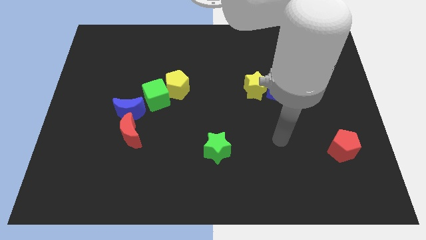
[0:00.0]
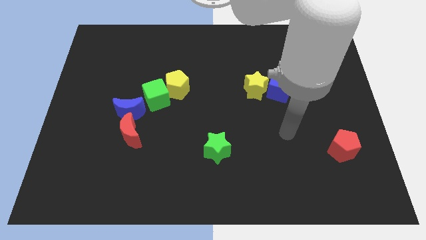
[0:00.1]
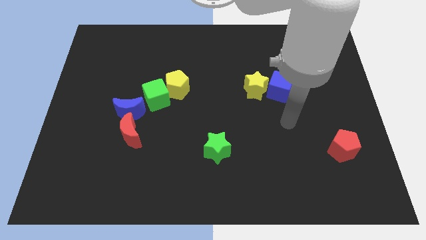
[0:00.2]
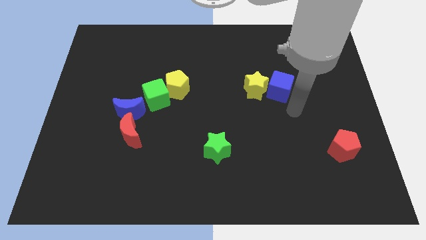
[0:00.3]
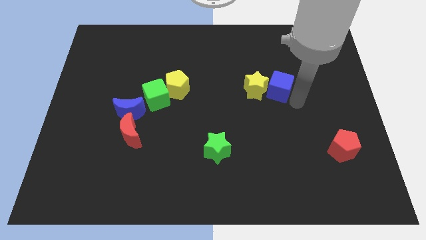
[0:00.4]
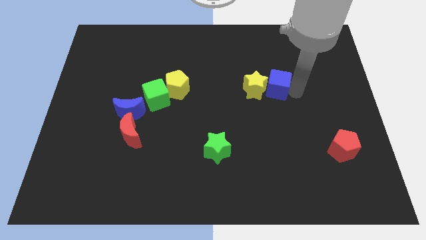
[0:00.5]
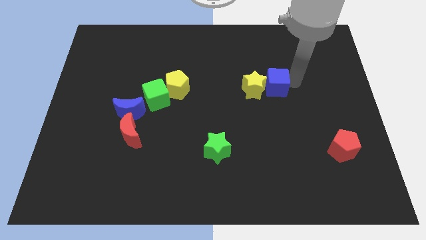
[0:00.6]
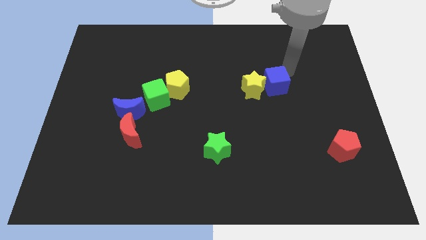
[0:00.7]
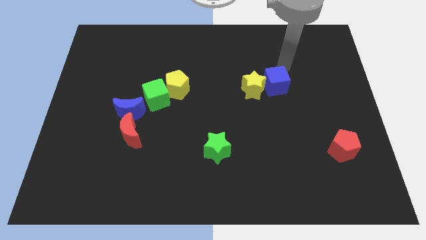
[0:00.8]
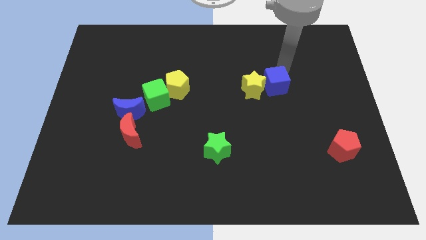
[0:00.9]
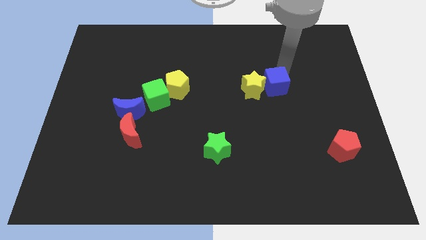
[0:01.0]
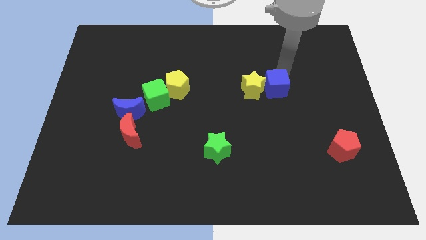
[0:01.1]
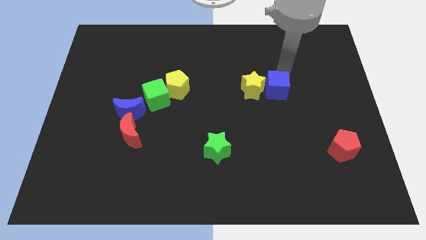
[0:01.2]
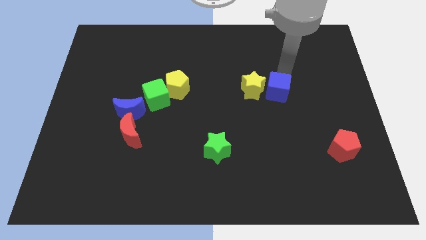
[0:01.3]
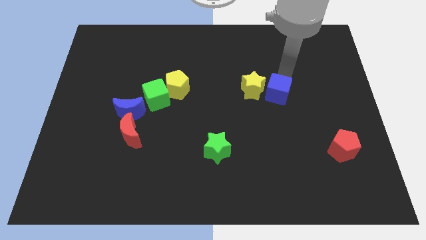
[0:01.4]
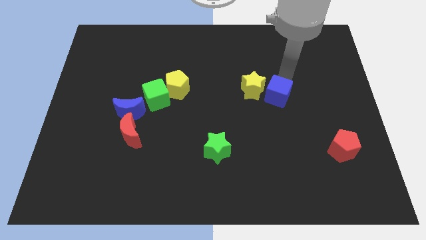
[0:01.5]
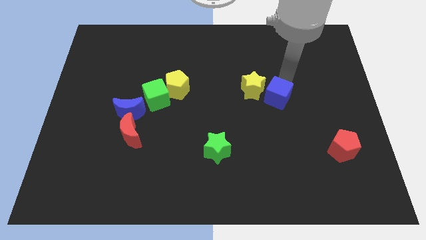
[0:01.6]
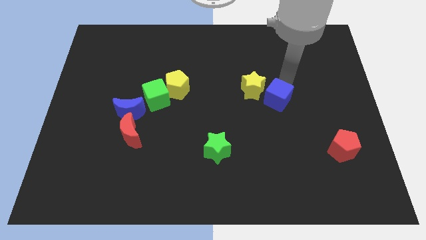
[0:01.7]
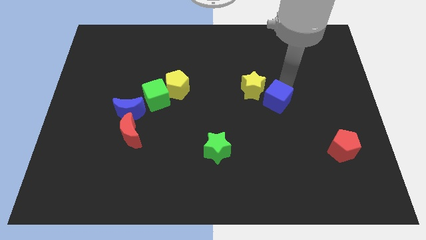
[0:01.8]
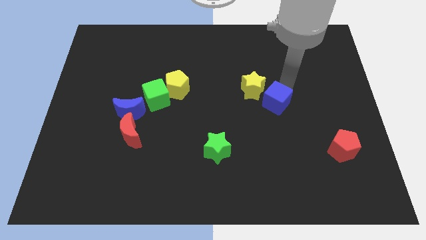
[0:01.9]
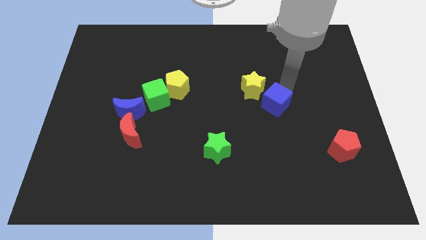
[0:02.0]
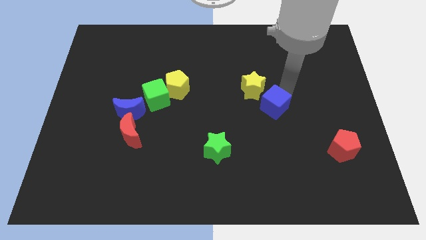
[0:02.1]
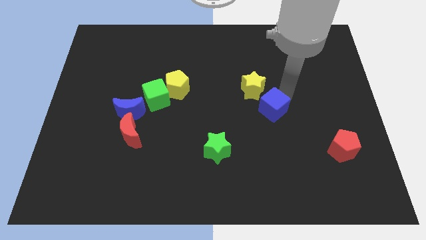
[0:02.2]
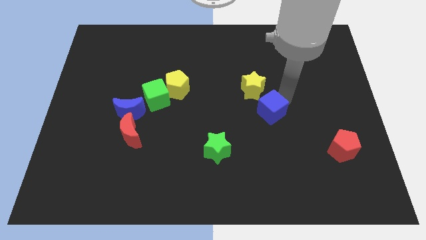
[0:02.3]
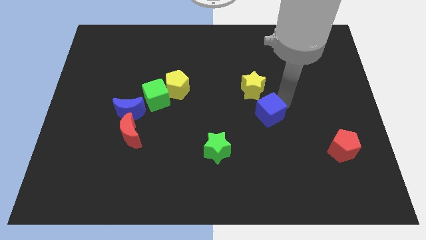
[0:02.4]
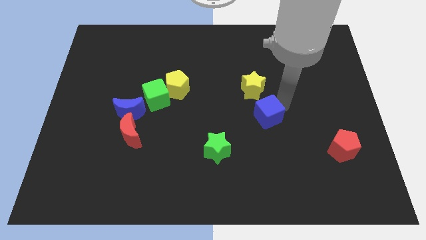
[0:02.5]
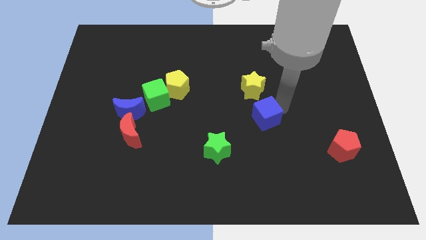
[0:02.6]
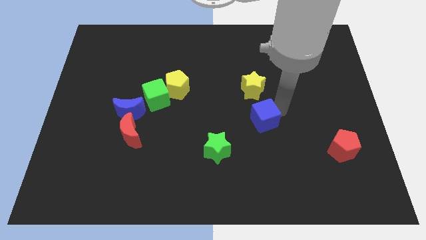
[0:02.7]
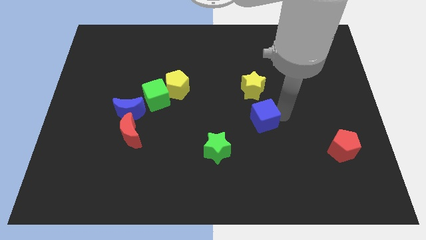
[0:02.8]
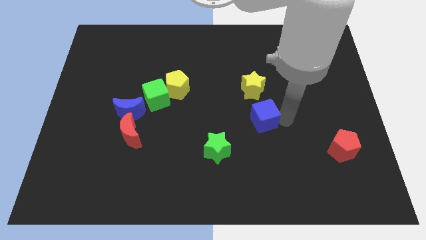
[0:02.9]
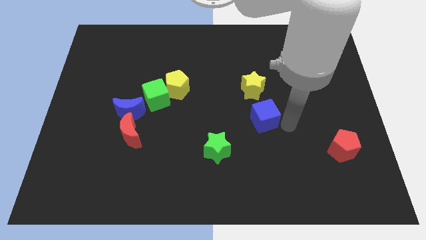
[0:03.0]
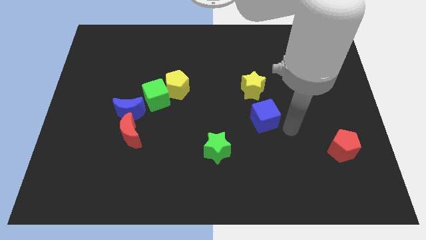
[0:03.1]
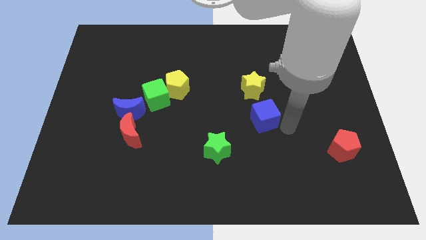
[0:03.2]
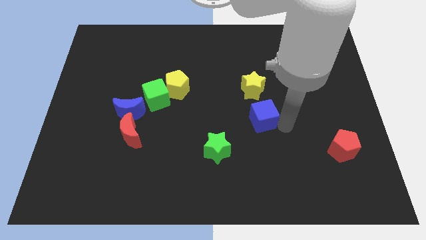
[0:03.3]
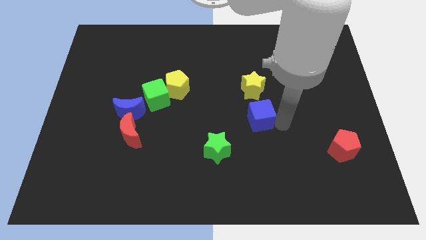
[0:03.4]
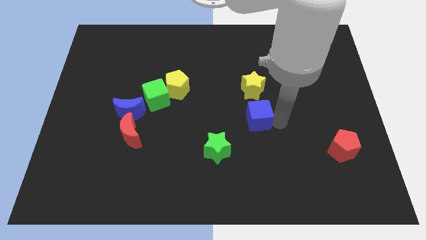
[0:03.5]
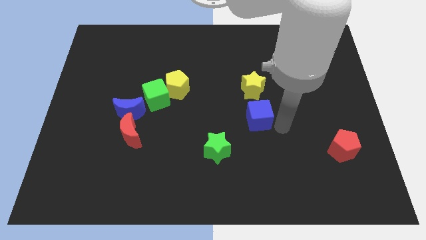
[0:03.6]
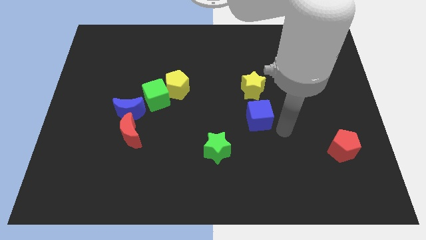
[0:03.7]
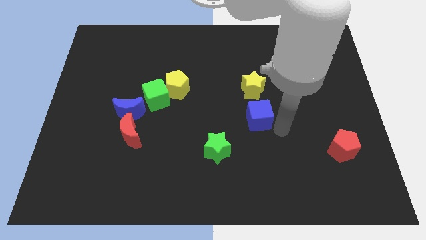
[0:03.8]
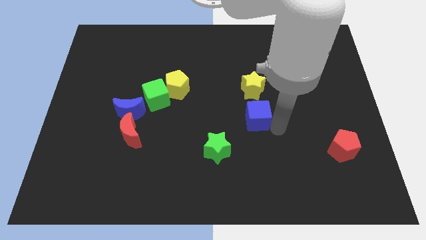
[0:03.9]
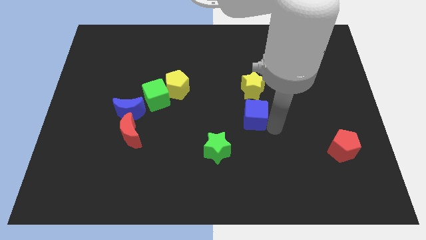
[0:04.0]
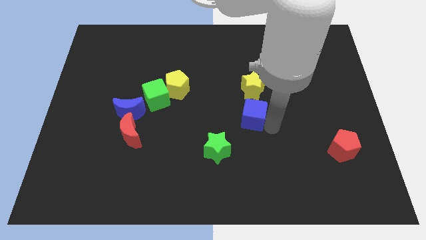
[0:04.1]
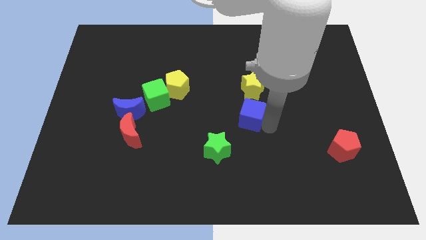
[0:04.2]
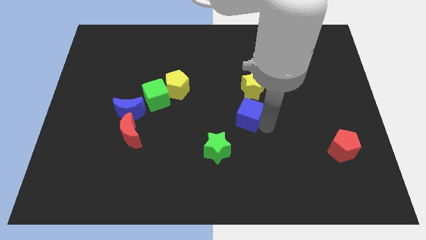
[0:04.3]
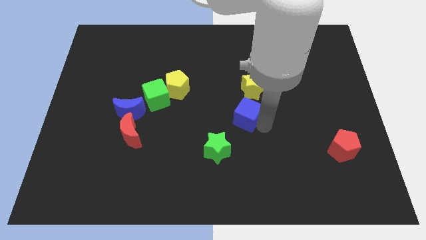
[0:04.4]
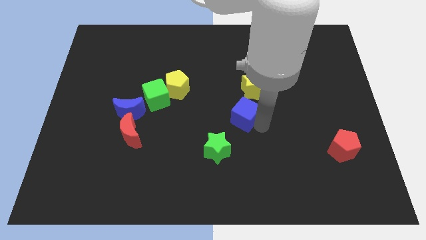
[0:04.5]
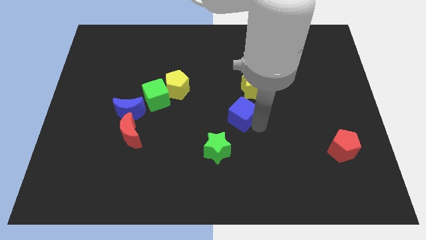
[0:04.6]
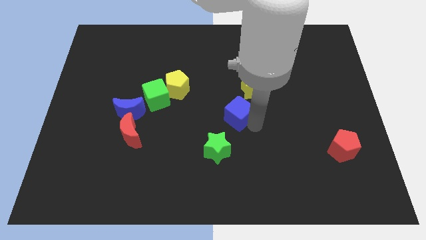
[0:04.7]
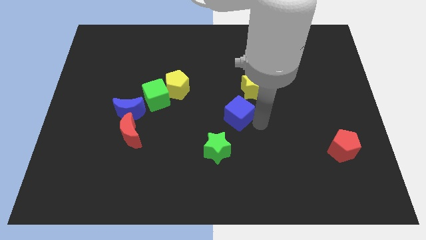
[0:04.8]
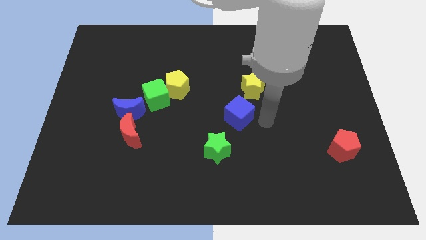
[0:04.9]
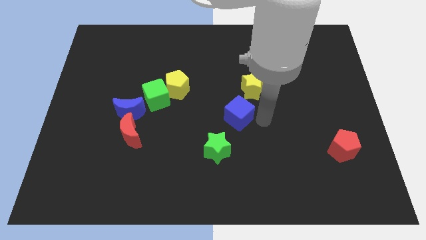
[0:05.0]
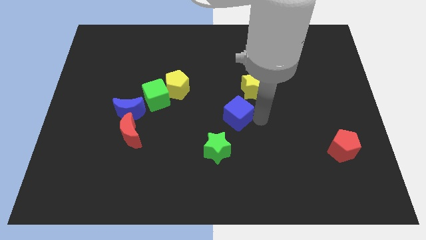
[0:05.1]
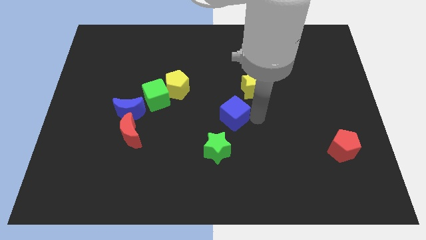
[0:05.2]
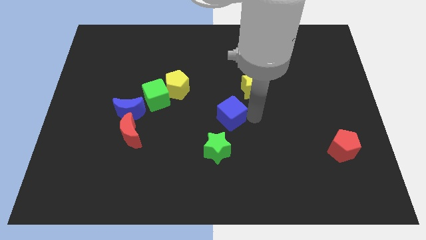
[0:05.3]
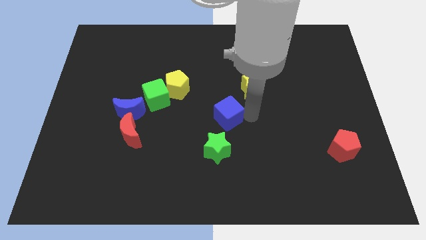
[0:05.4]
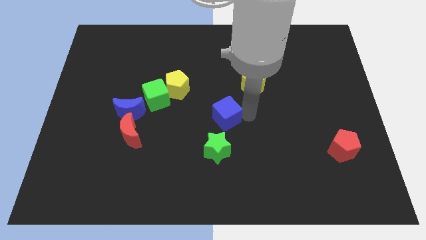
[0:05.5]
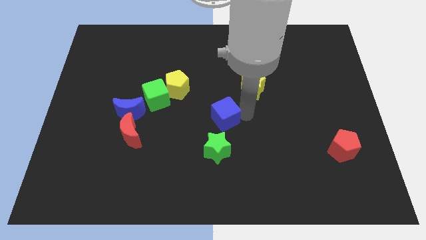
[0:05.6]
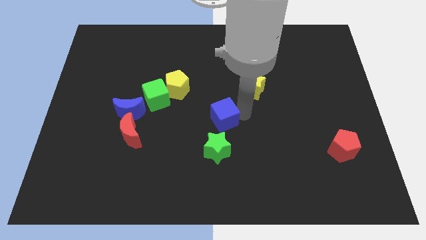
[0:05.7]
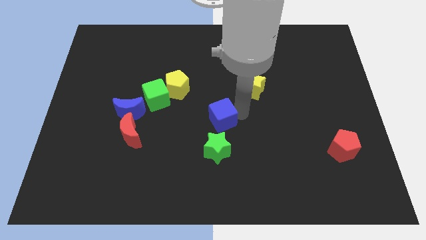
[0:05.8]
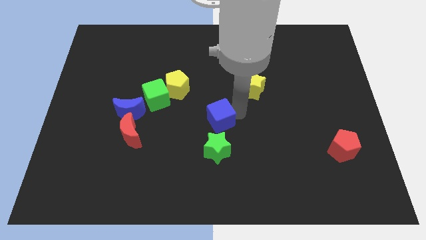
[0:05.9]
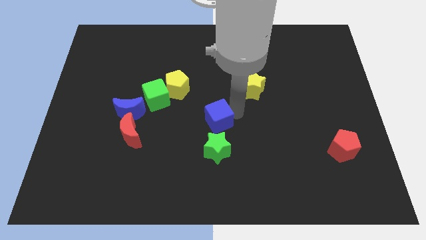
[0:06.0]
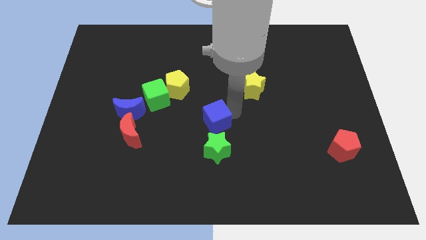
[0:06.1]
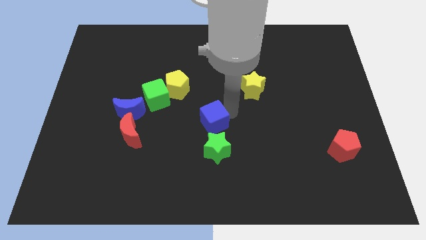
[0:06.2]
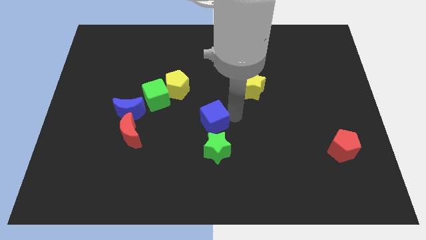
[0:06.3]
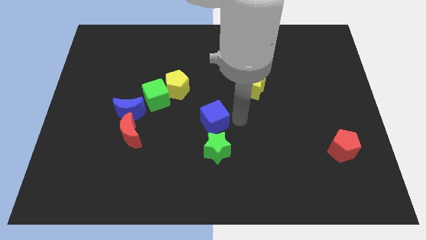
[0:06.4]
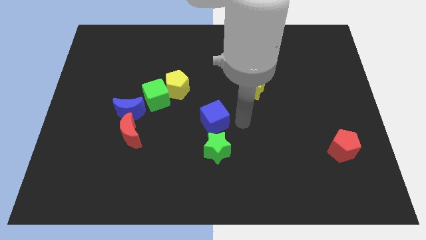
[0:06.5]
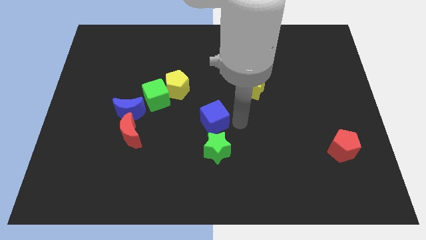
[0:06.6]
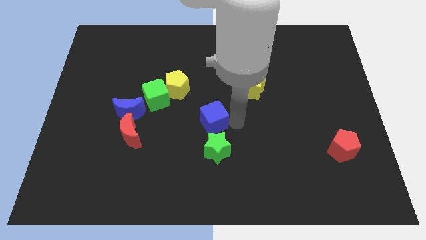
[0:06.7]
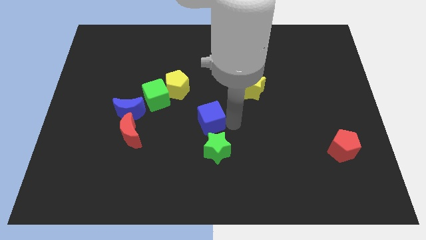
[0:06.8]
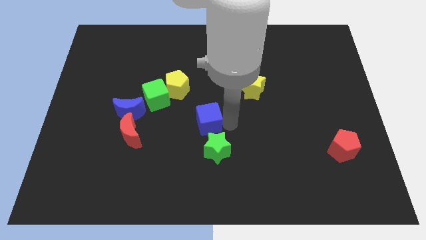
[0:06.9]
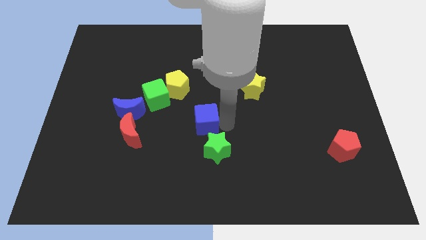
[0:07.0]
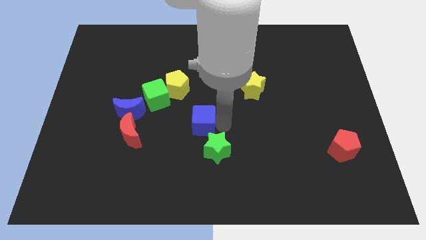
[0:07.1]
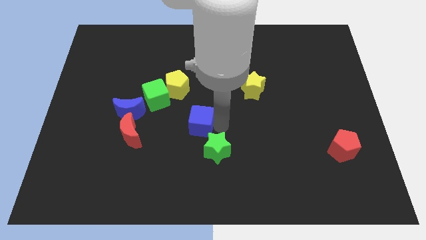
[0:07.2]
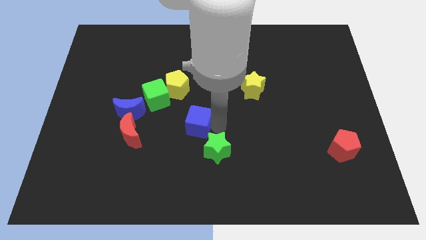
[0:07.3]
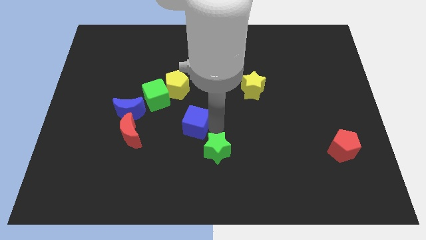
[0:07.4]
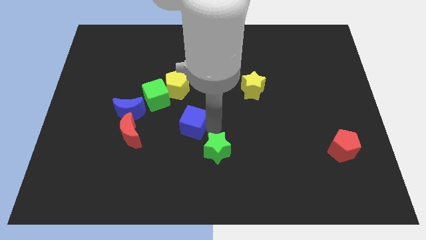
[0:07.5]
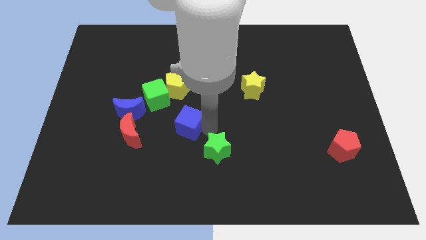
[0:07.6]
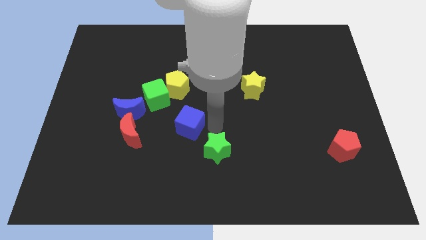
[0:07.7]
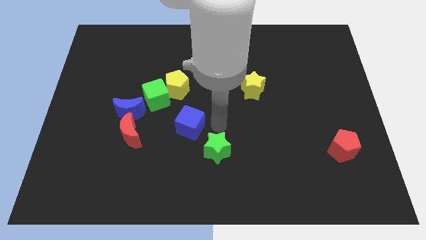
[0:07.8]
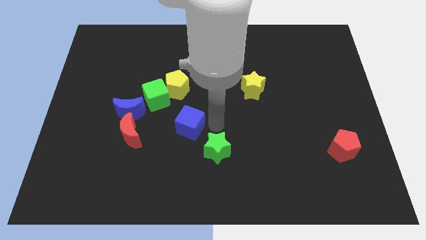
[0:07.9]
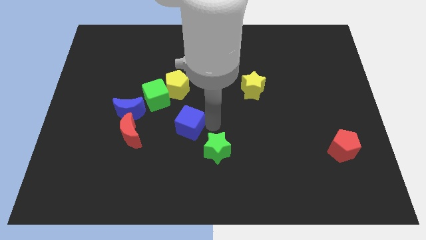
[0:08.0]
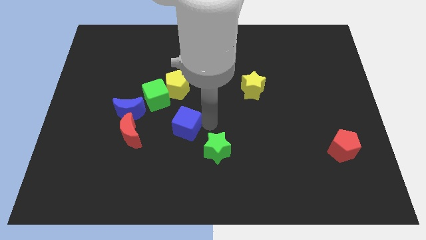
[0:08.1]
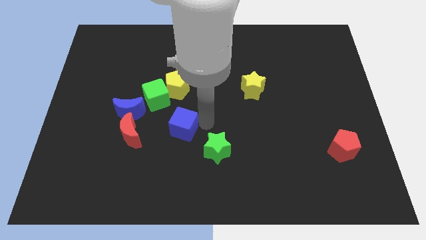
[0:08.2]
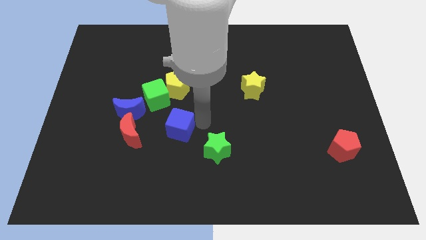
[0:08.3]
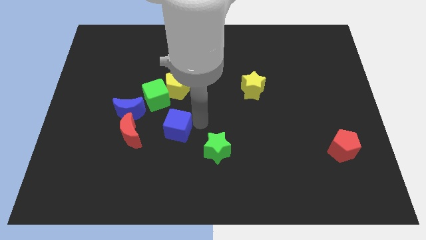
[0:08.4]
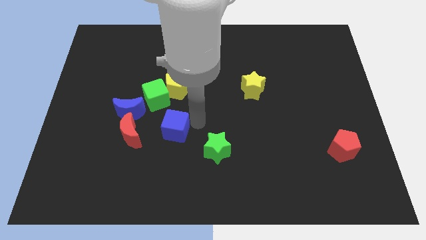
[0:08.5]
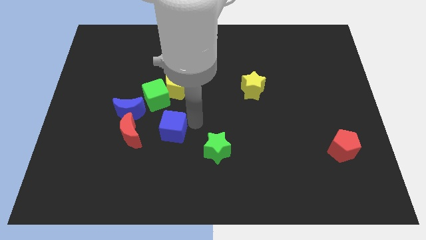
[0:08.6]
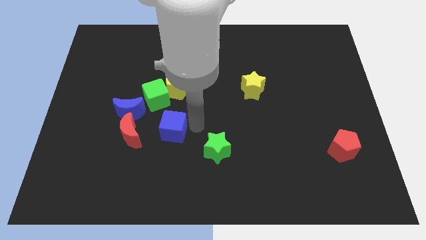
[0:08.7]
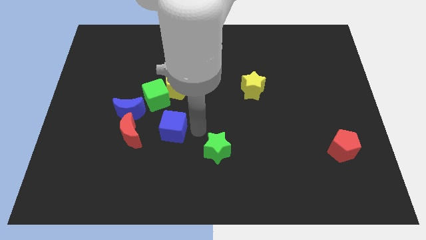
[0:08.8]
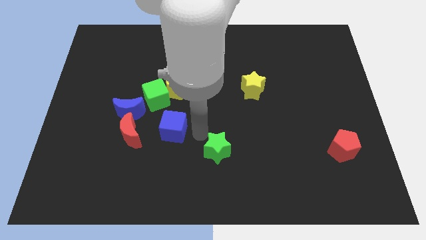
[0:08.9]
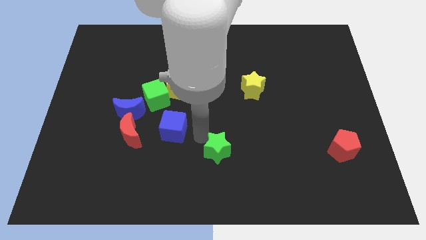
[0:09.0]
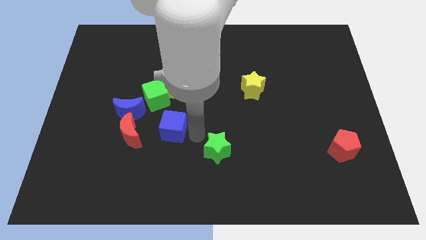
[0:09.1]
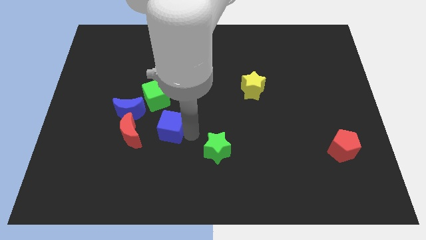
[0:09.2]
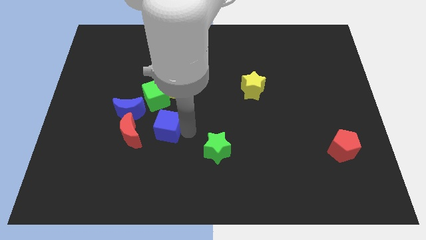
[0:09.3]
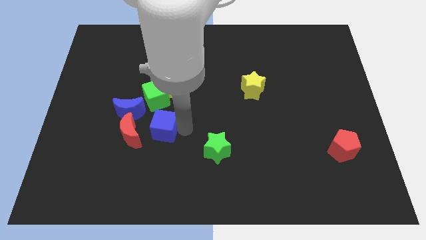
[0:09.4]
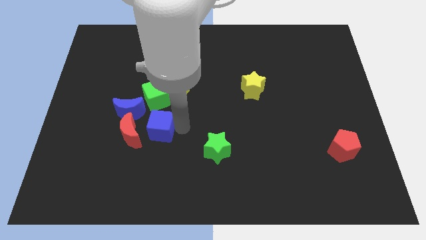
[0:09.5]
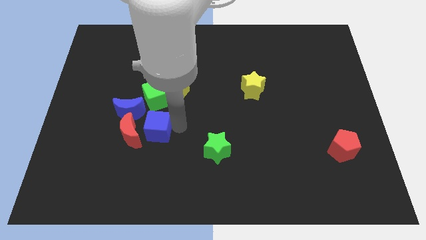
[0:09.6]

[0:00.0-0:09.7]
put the blue cube close to the red moon
